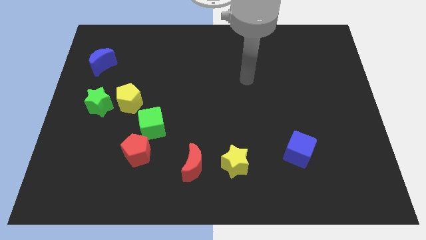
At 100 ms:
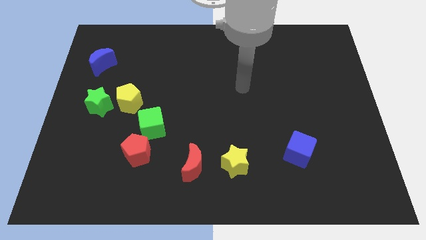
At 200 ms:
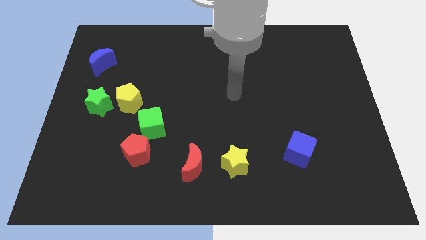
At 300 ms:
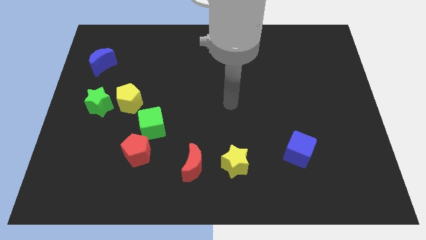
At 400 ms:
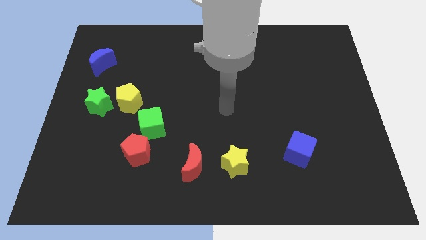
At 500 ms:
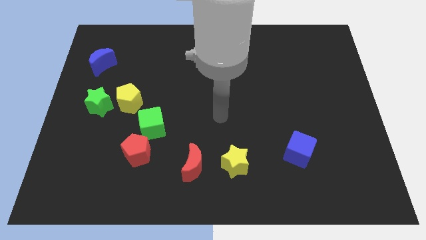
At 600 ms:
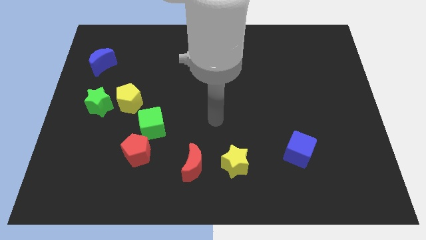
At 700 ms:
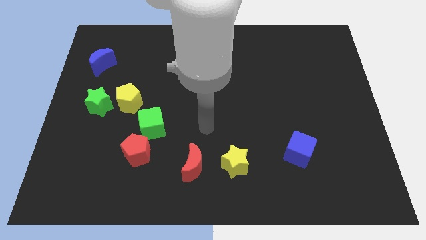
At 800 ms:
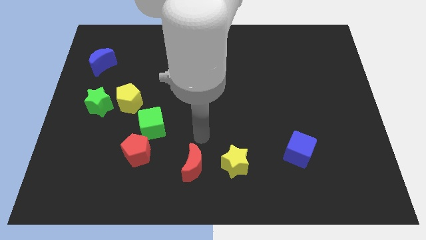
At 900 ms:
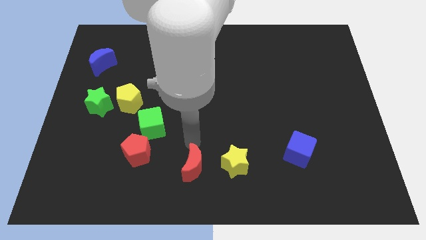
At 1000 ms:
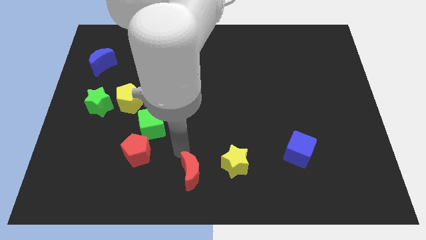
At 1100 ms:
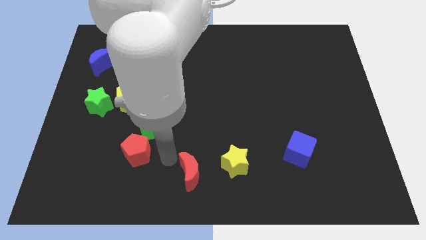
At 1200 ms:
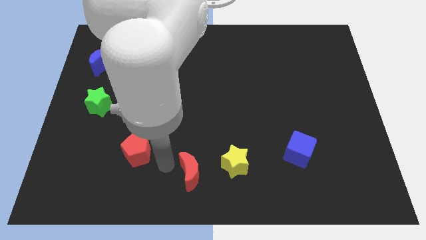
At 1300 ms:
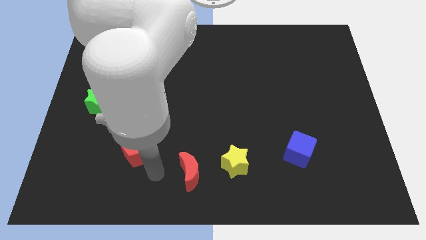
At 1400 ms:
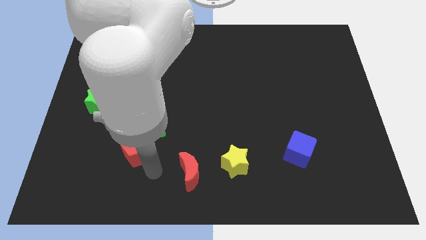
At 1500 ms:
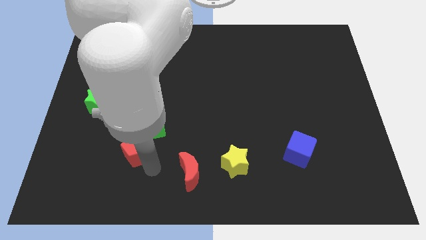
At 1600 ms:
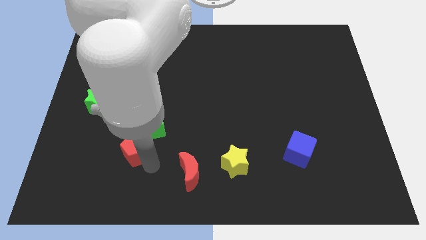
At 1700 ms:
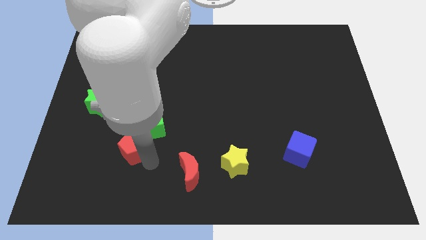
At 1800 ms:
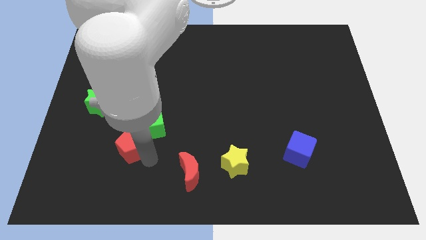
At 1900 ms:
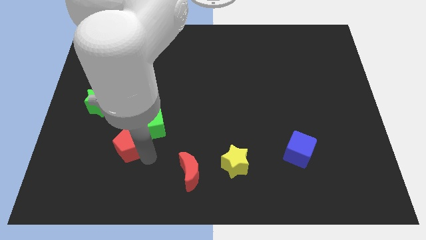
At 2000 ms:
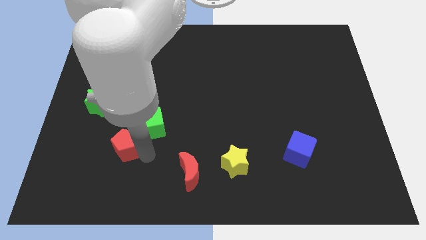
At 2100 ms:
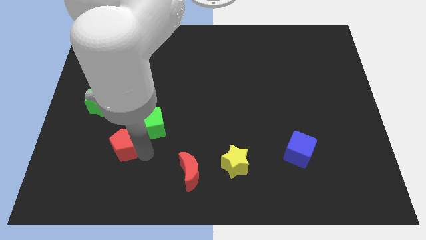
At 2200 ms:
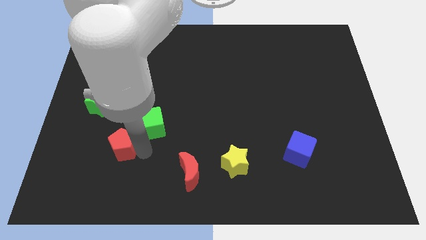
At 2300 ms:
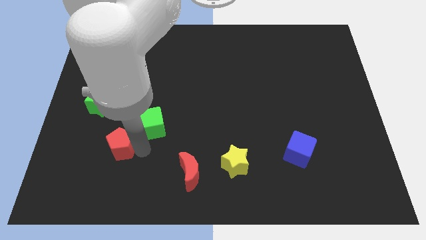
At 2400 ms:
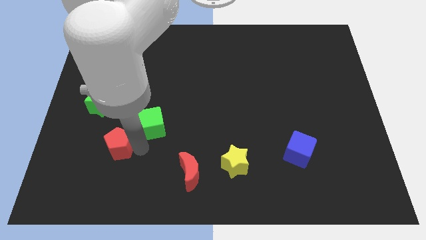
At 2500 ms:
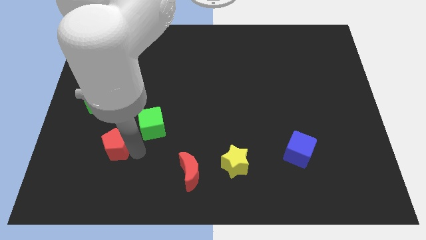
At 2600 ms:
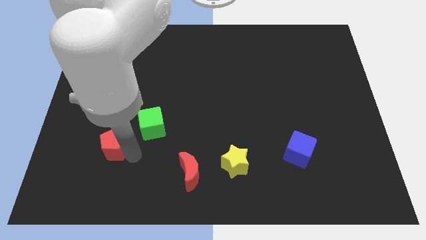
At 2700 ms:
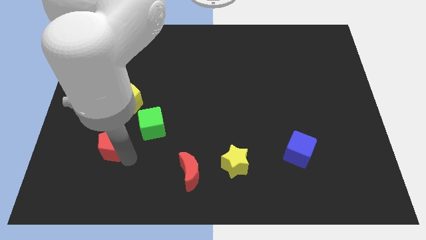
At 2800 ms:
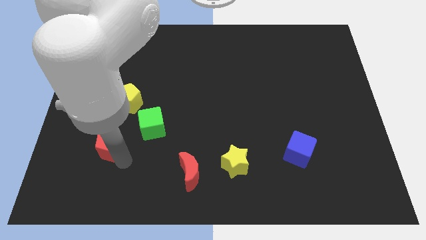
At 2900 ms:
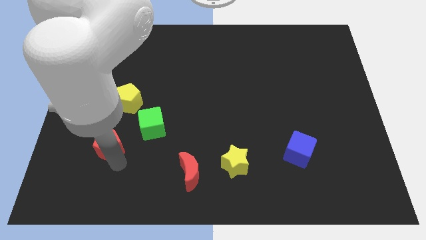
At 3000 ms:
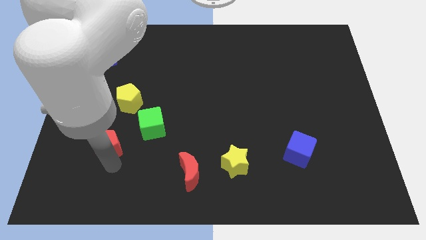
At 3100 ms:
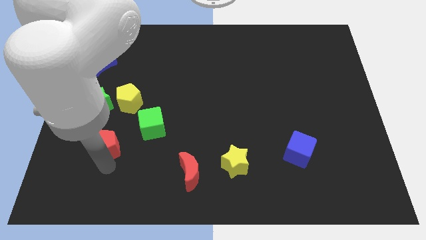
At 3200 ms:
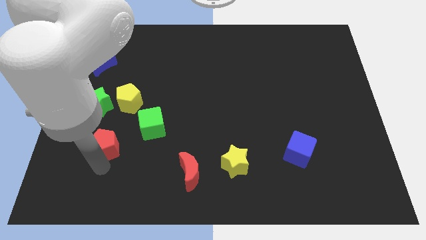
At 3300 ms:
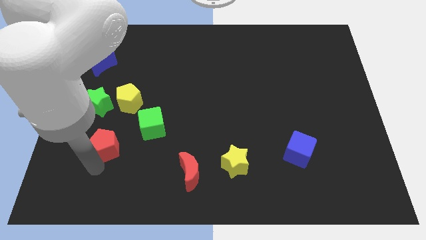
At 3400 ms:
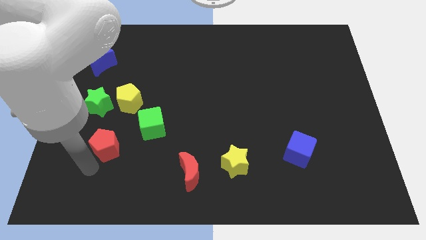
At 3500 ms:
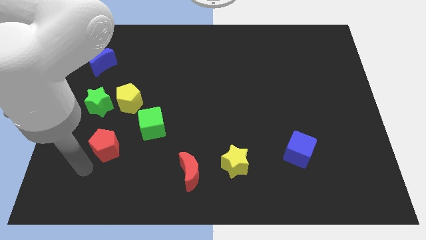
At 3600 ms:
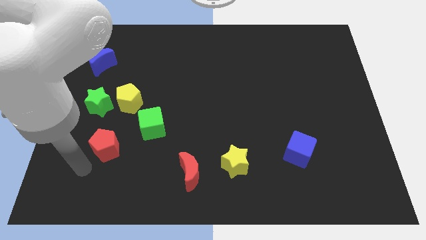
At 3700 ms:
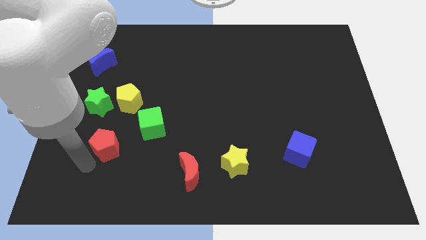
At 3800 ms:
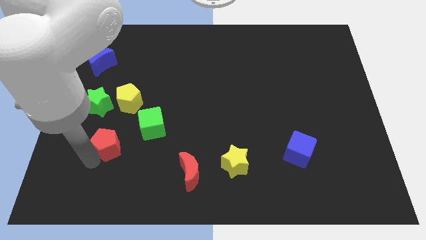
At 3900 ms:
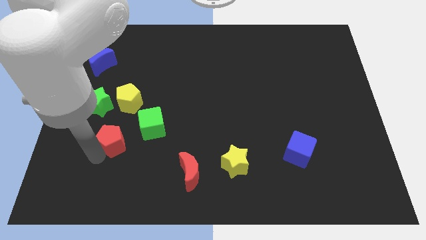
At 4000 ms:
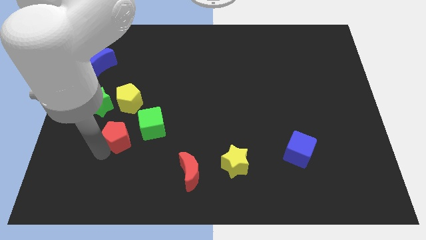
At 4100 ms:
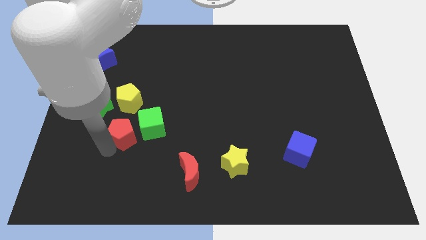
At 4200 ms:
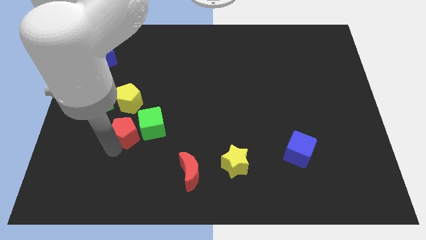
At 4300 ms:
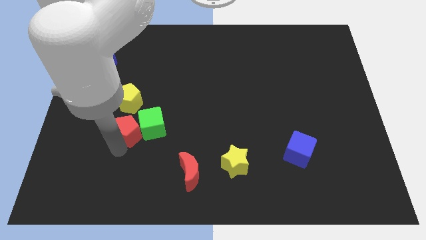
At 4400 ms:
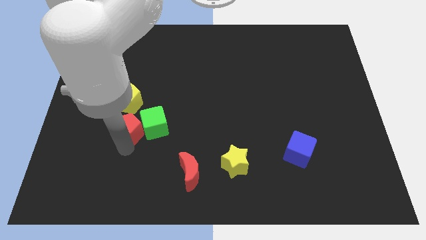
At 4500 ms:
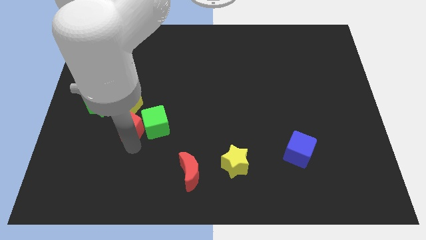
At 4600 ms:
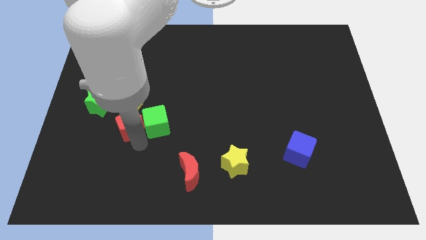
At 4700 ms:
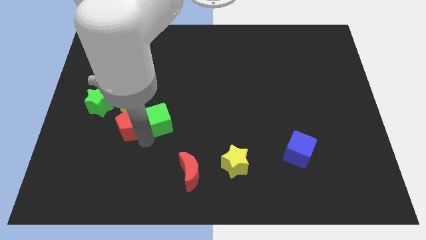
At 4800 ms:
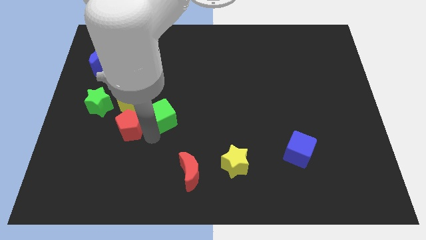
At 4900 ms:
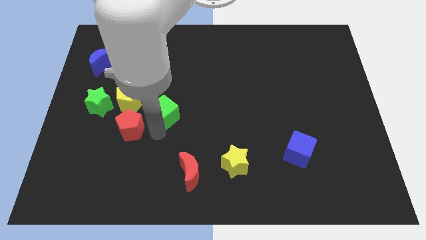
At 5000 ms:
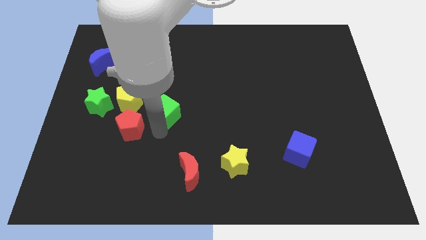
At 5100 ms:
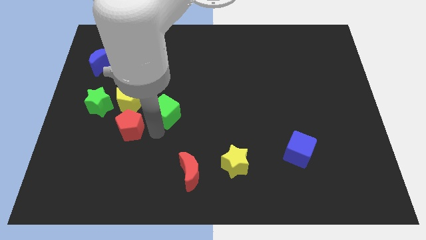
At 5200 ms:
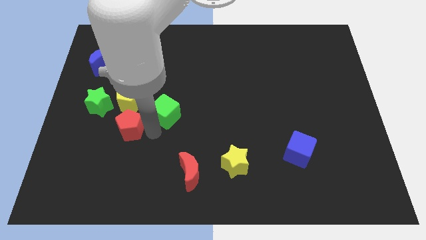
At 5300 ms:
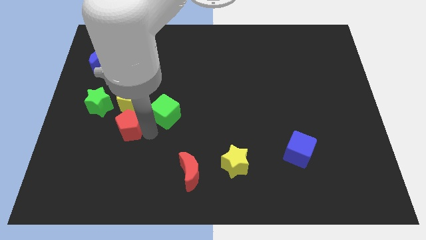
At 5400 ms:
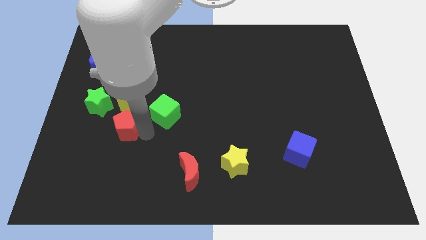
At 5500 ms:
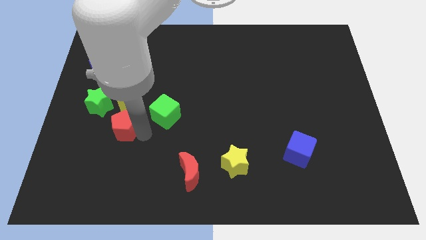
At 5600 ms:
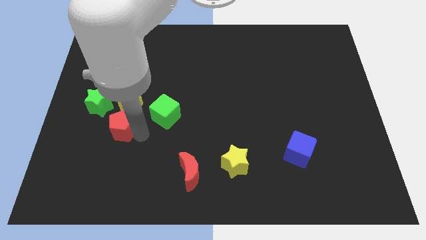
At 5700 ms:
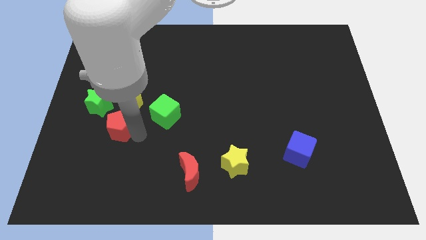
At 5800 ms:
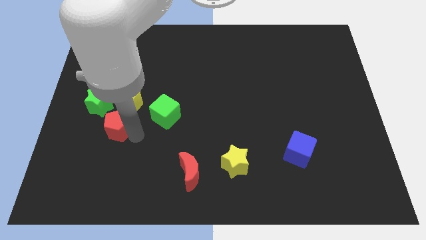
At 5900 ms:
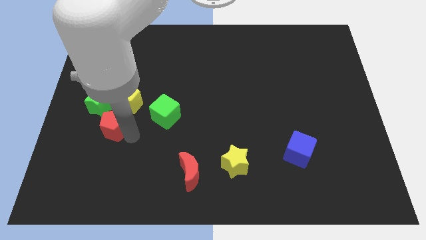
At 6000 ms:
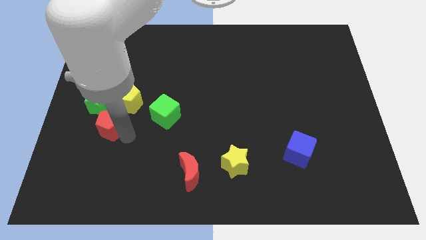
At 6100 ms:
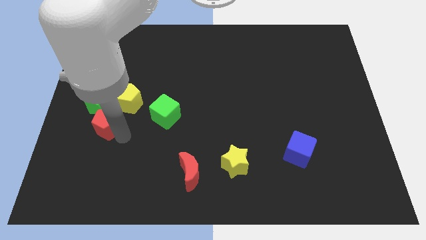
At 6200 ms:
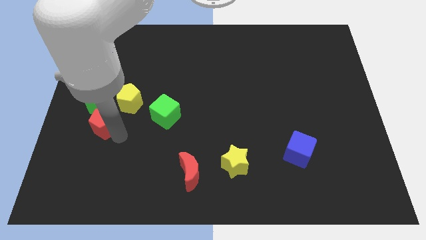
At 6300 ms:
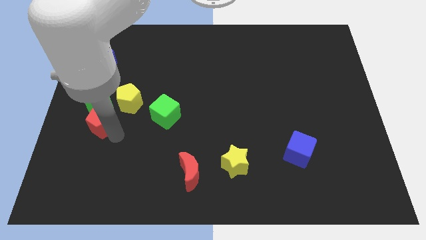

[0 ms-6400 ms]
move the red pentagon close to the green star
